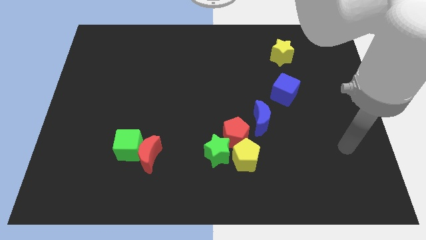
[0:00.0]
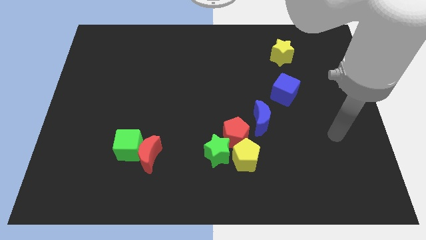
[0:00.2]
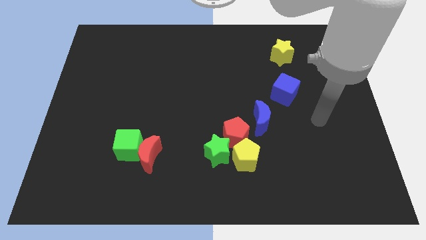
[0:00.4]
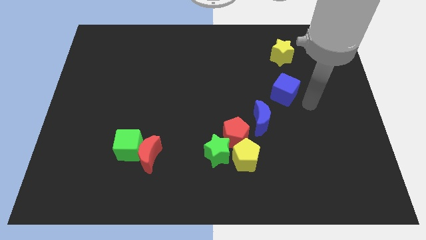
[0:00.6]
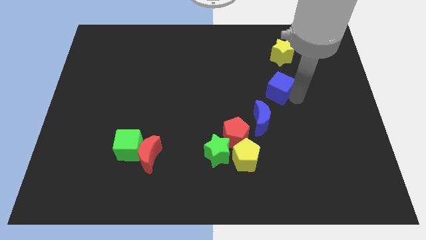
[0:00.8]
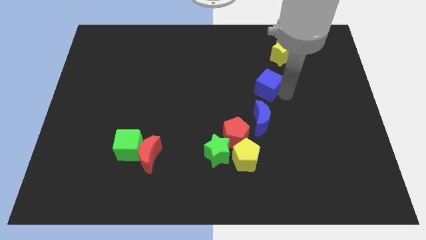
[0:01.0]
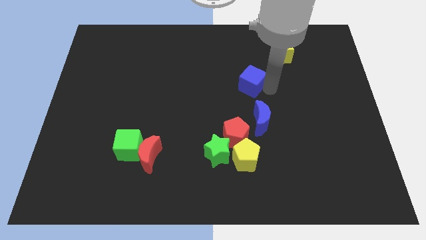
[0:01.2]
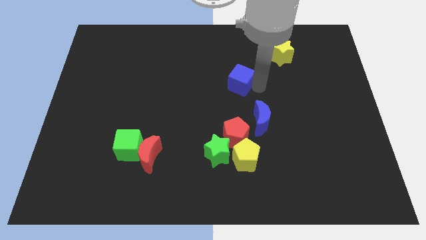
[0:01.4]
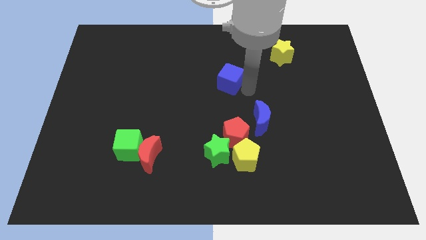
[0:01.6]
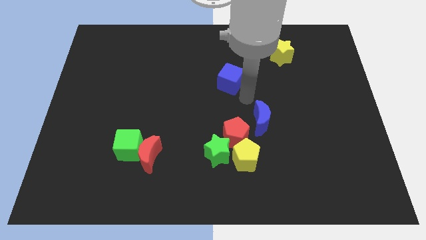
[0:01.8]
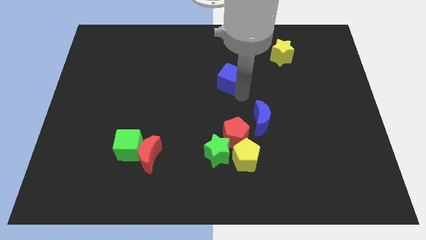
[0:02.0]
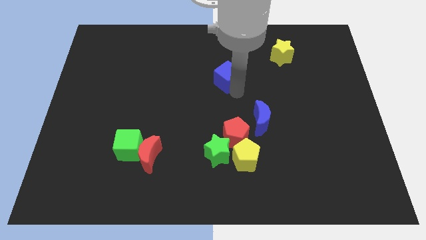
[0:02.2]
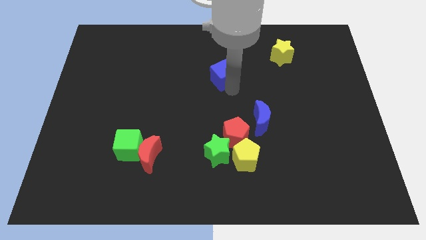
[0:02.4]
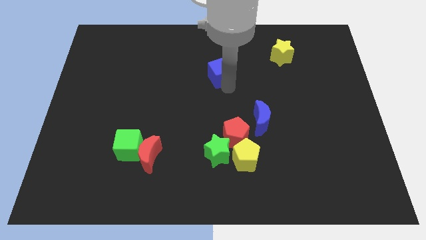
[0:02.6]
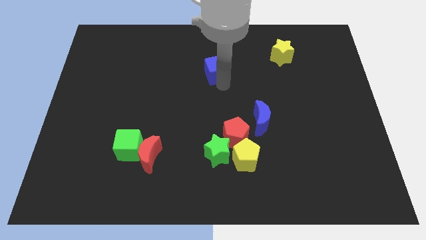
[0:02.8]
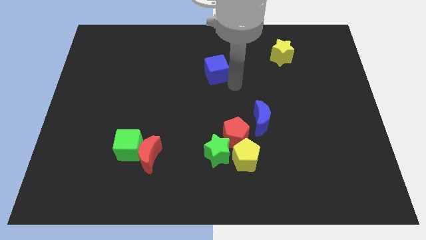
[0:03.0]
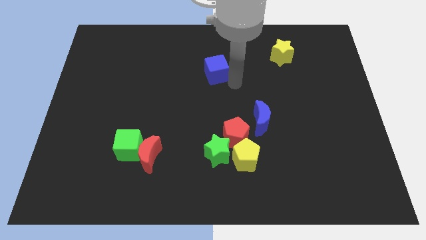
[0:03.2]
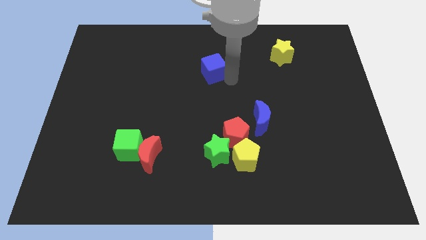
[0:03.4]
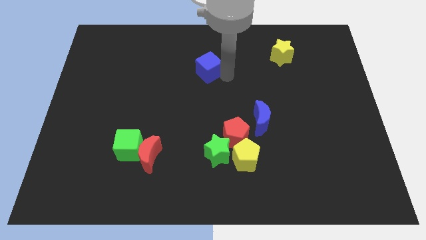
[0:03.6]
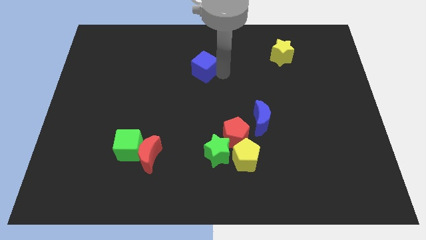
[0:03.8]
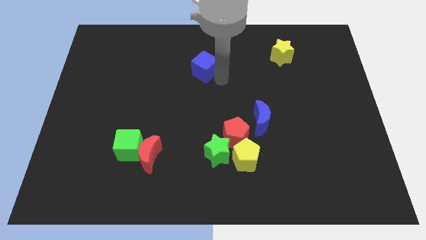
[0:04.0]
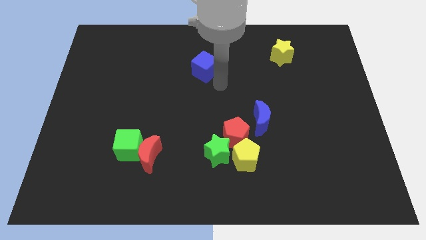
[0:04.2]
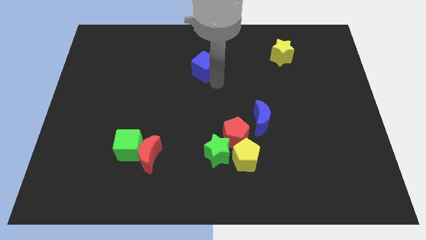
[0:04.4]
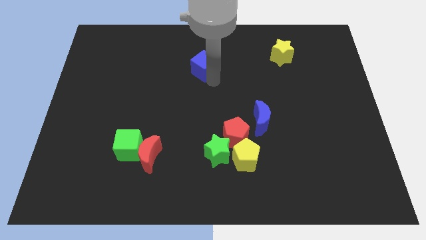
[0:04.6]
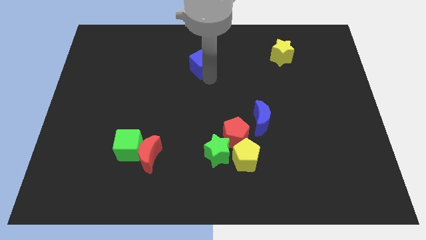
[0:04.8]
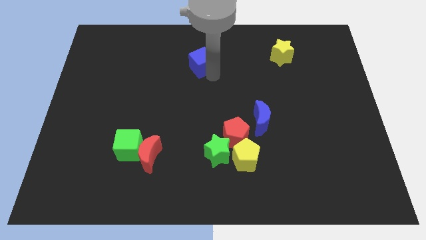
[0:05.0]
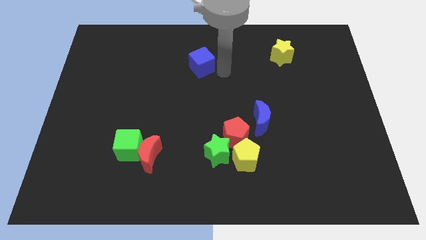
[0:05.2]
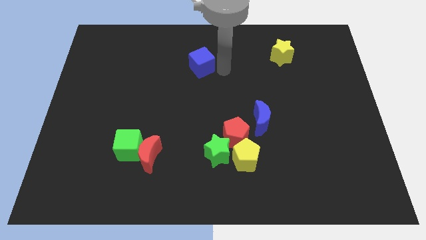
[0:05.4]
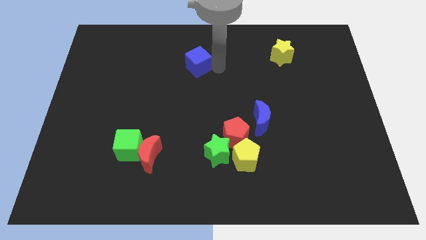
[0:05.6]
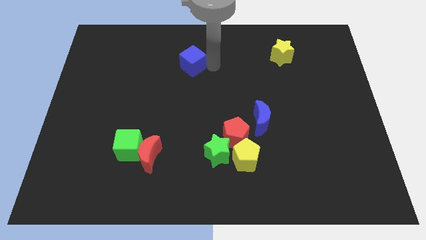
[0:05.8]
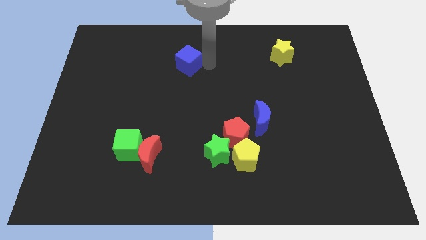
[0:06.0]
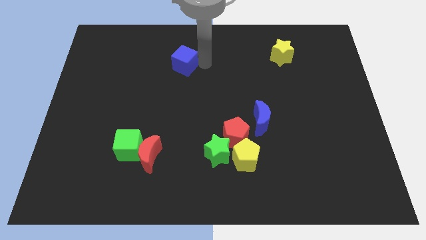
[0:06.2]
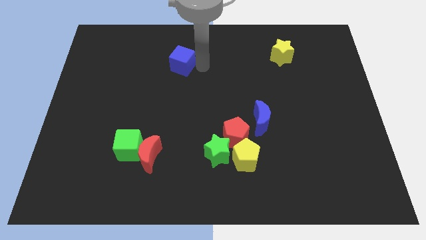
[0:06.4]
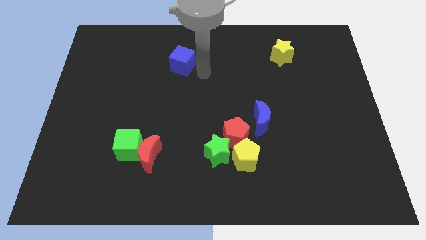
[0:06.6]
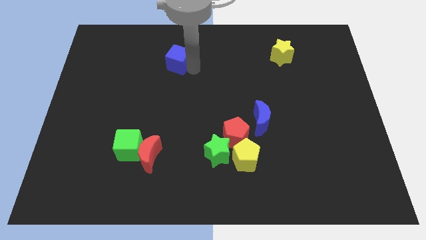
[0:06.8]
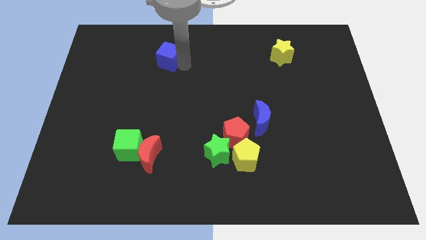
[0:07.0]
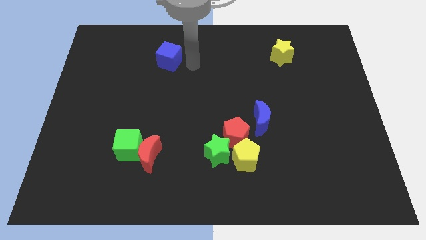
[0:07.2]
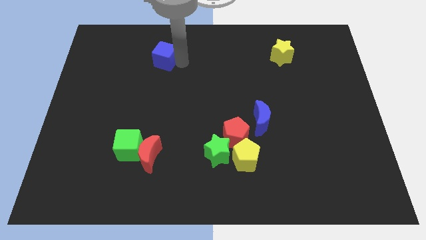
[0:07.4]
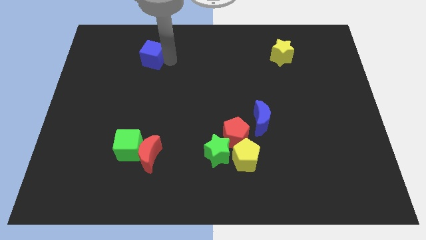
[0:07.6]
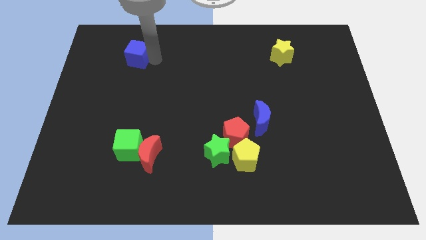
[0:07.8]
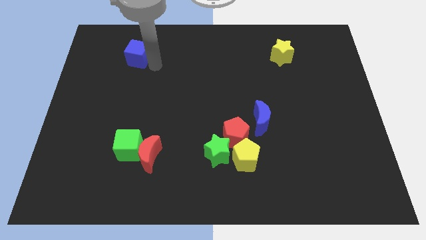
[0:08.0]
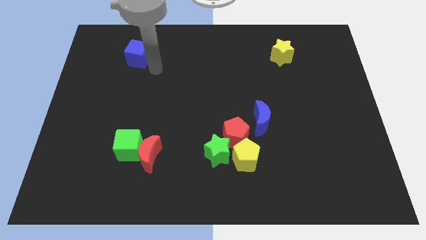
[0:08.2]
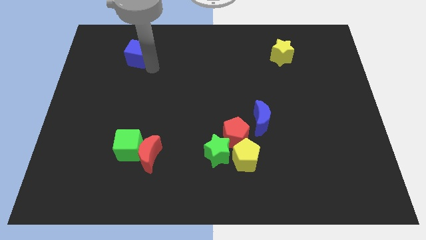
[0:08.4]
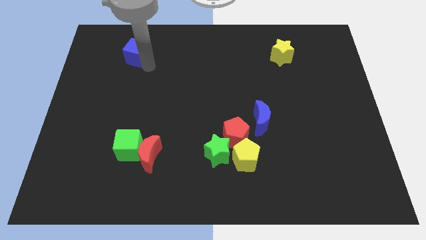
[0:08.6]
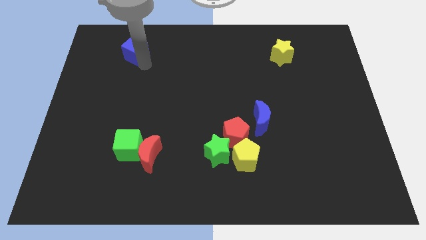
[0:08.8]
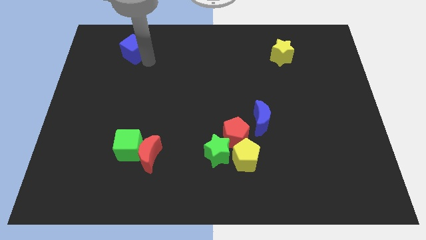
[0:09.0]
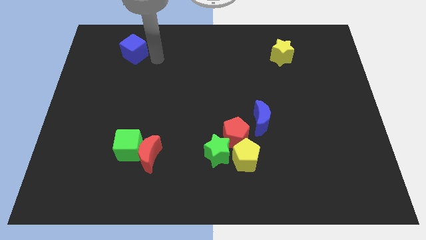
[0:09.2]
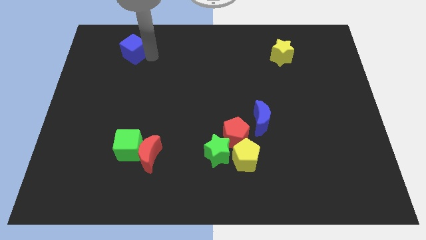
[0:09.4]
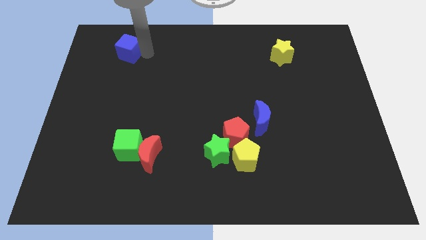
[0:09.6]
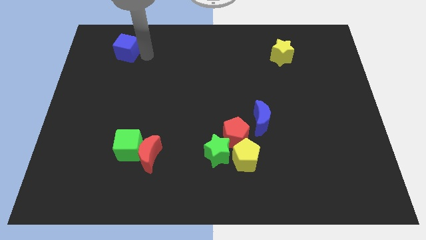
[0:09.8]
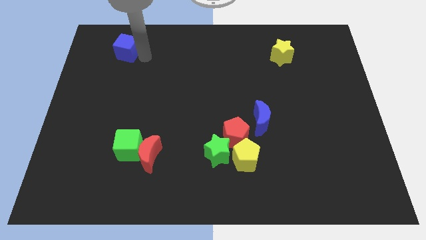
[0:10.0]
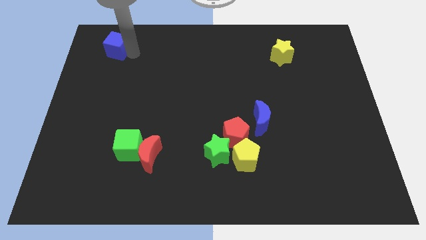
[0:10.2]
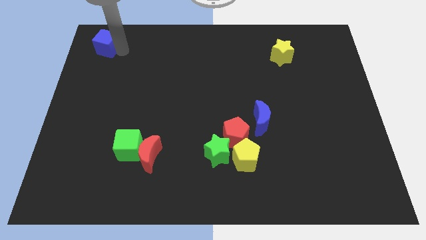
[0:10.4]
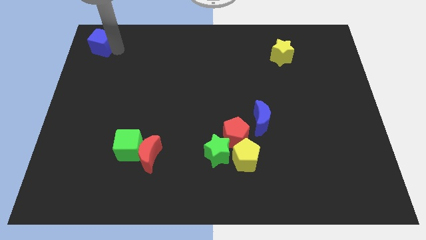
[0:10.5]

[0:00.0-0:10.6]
slide the blue cube to the top left
